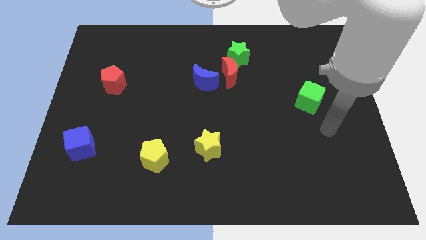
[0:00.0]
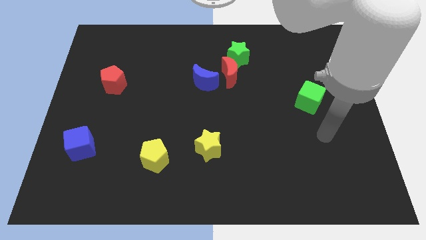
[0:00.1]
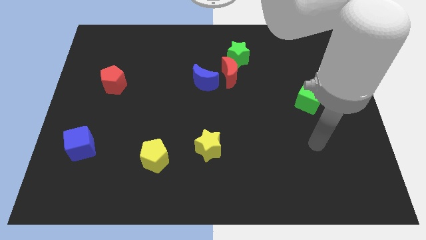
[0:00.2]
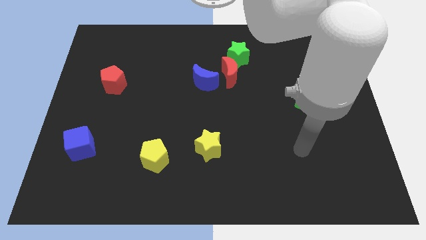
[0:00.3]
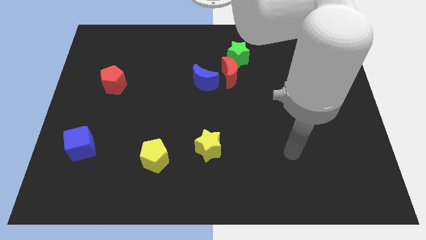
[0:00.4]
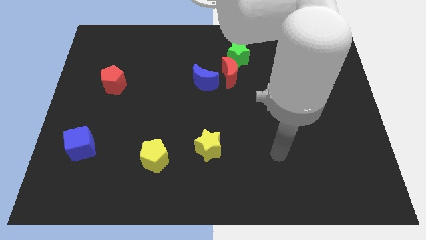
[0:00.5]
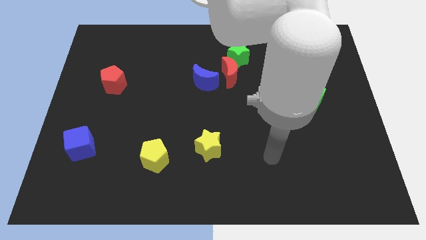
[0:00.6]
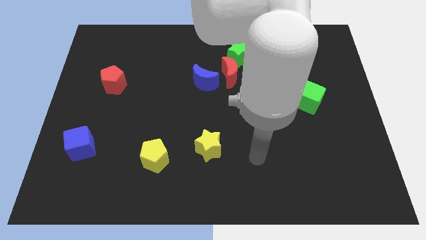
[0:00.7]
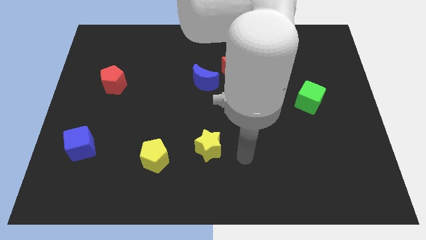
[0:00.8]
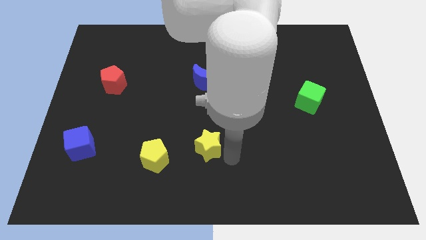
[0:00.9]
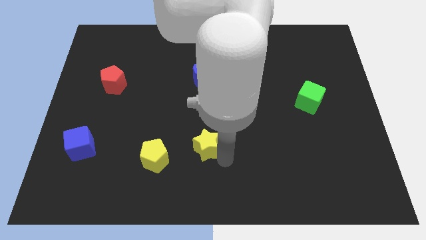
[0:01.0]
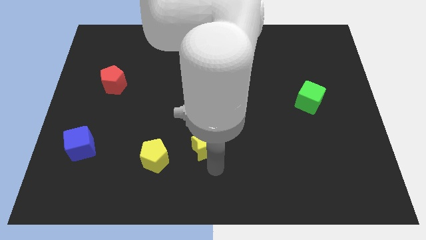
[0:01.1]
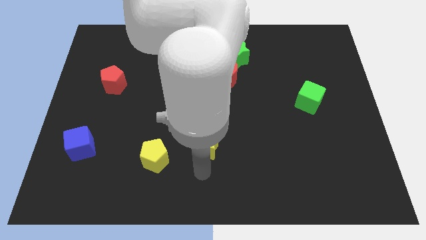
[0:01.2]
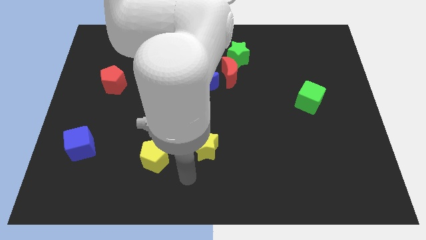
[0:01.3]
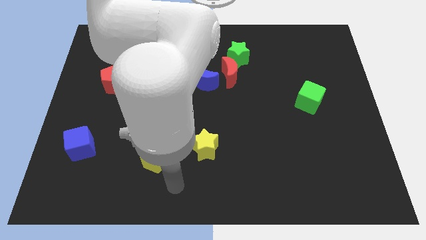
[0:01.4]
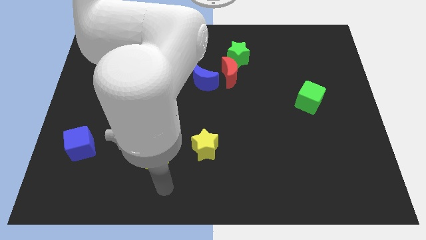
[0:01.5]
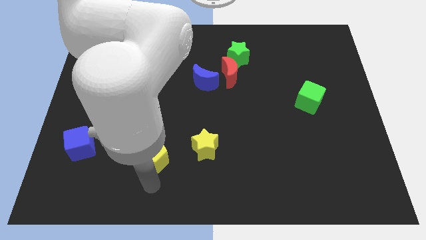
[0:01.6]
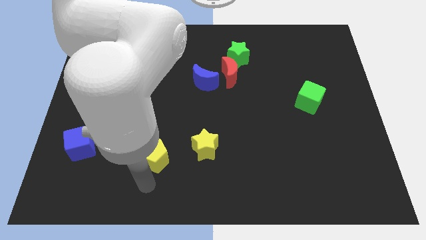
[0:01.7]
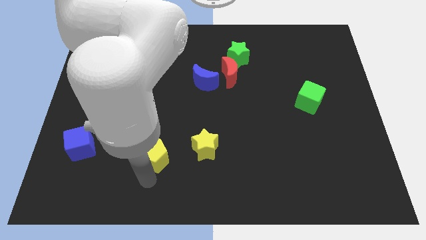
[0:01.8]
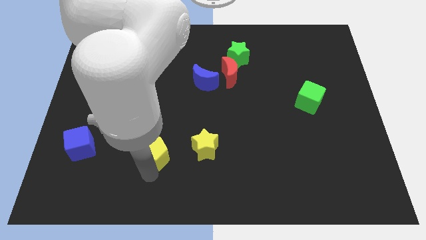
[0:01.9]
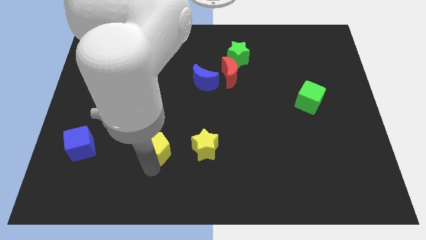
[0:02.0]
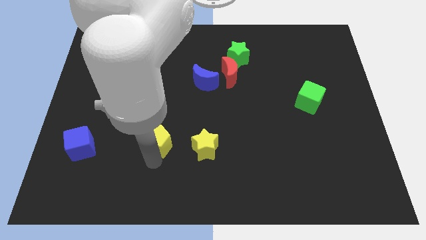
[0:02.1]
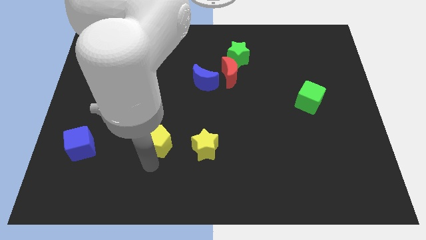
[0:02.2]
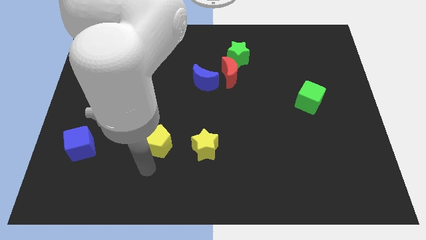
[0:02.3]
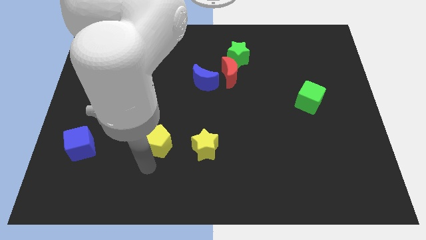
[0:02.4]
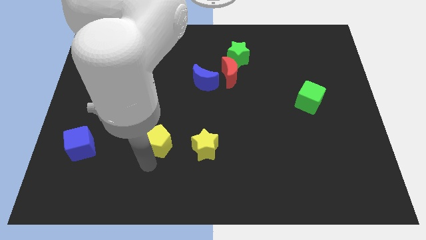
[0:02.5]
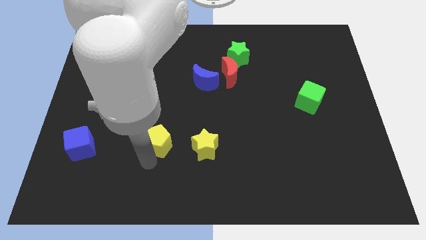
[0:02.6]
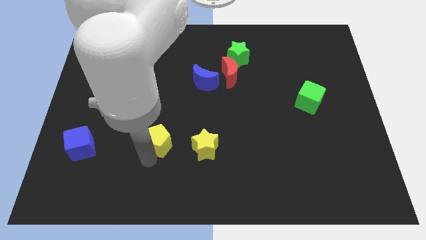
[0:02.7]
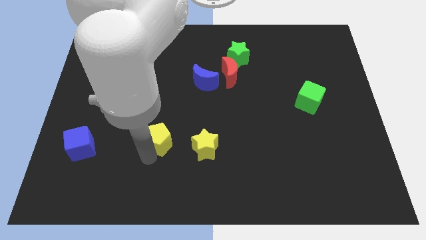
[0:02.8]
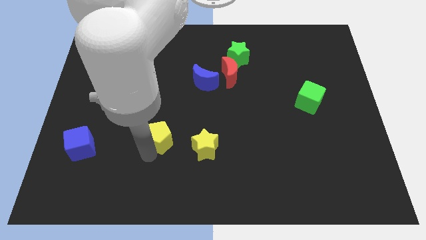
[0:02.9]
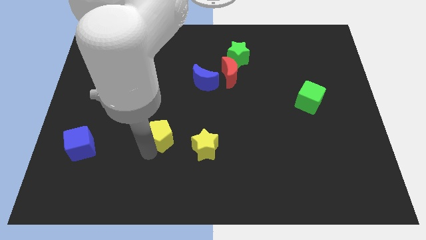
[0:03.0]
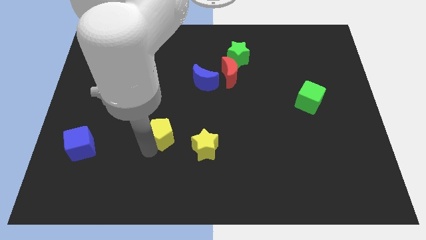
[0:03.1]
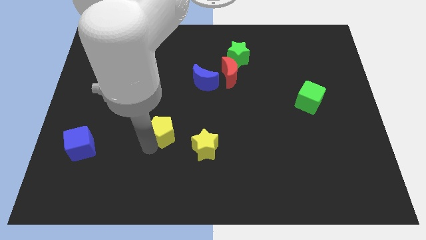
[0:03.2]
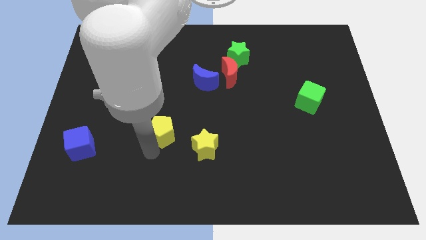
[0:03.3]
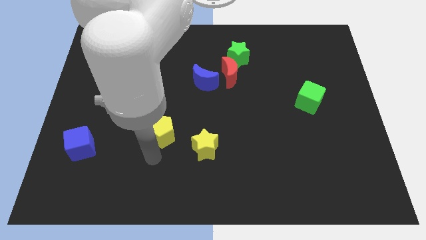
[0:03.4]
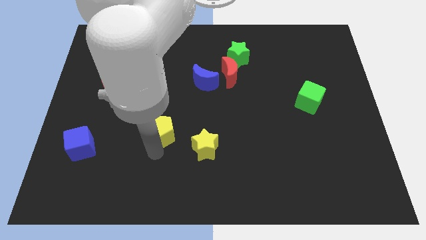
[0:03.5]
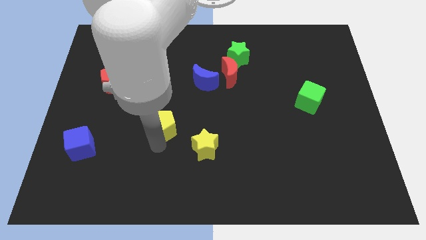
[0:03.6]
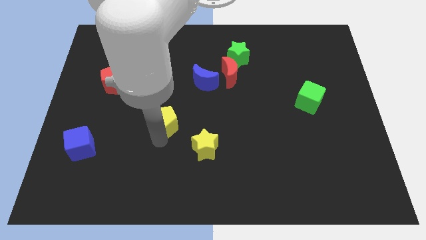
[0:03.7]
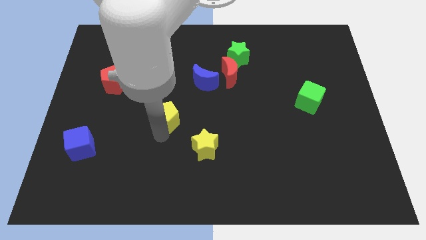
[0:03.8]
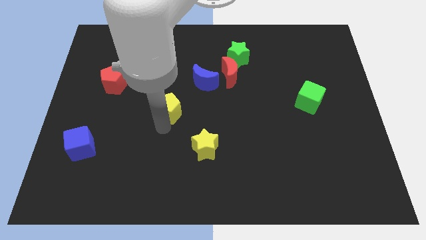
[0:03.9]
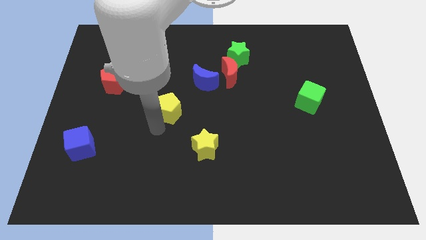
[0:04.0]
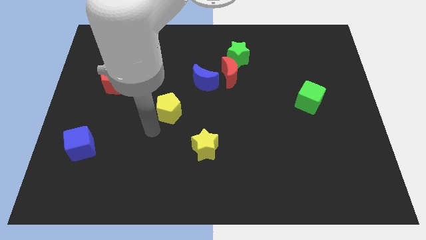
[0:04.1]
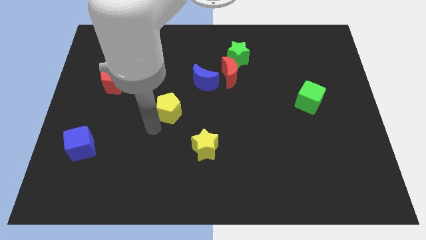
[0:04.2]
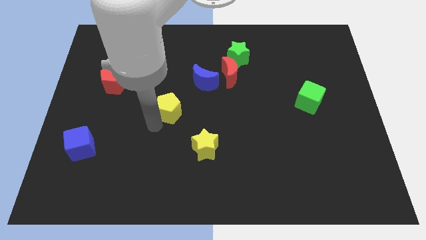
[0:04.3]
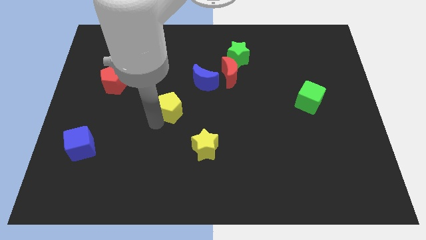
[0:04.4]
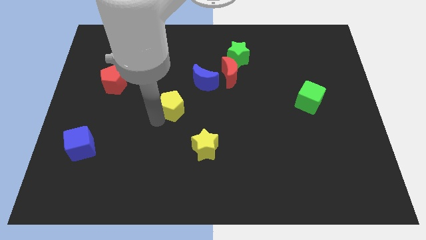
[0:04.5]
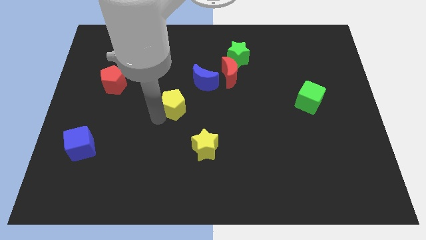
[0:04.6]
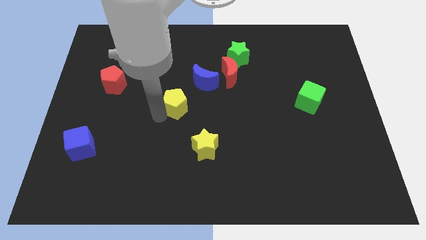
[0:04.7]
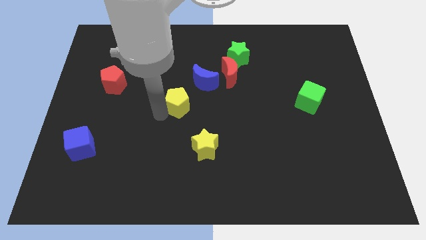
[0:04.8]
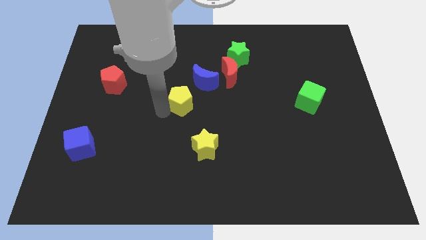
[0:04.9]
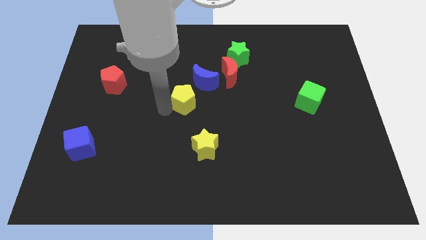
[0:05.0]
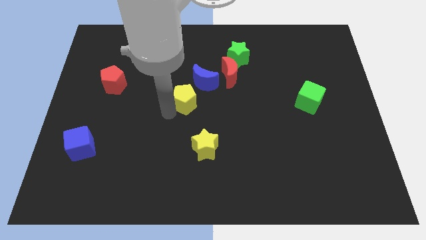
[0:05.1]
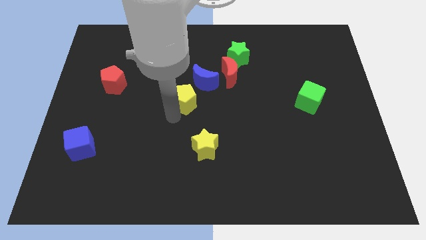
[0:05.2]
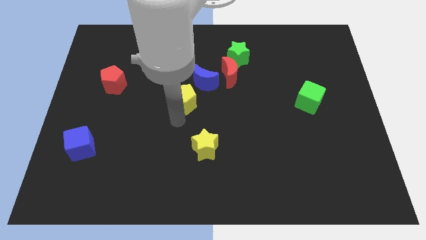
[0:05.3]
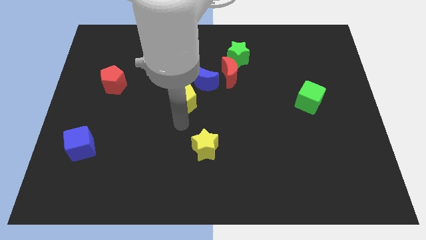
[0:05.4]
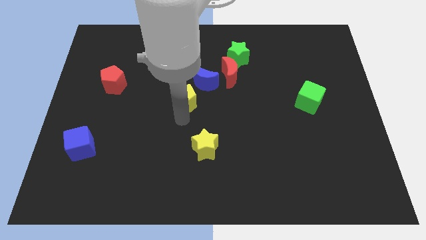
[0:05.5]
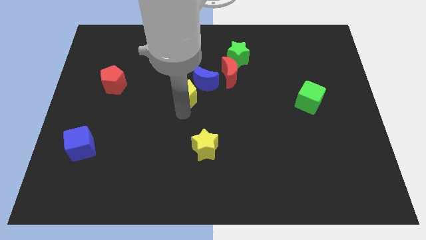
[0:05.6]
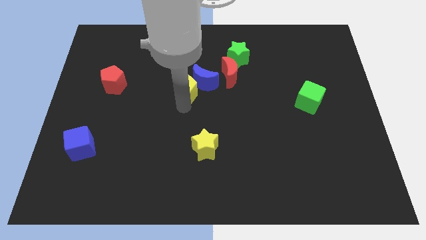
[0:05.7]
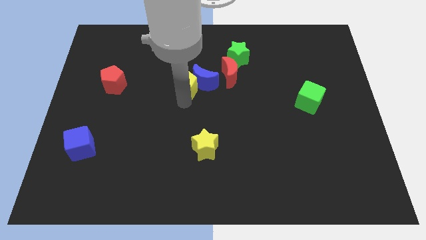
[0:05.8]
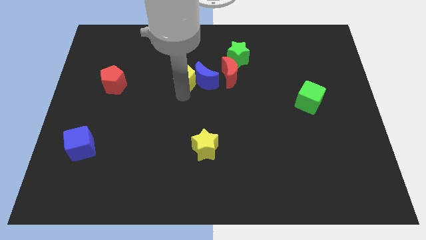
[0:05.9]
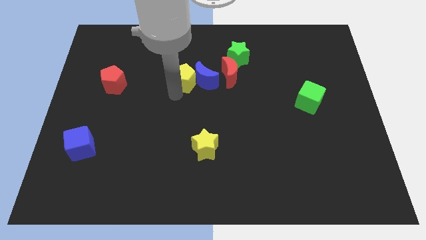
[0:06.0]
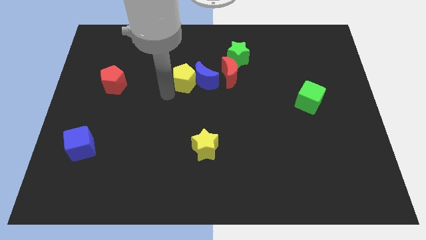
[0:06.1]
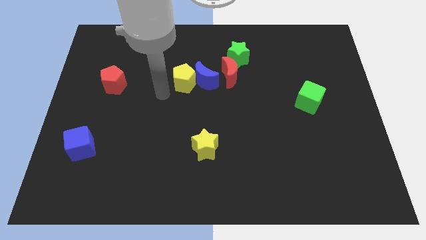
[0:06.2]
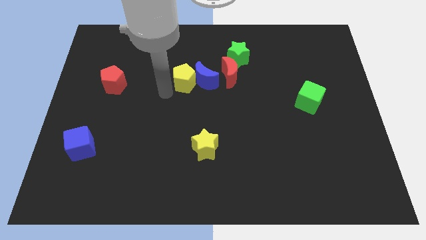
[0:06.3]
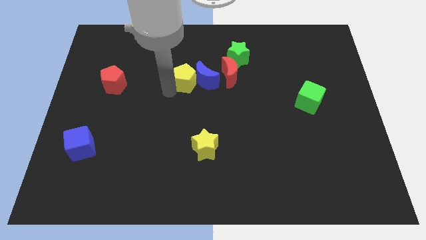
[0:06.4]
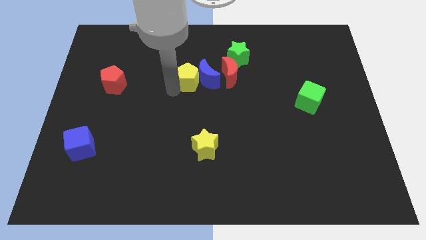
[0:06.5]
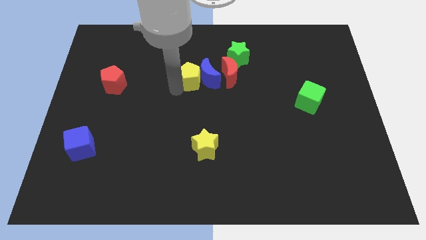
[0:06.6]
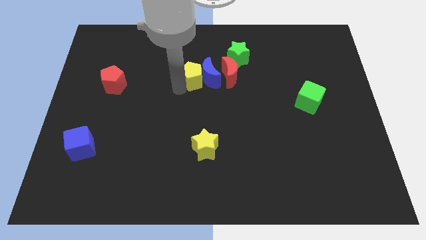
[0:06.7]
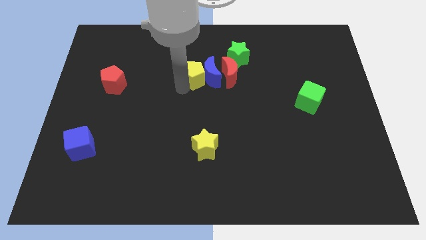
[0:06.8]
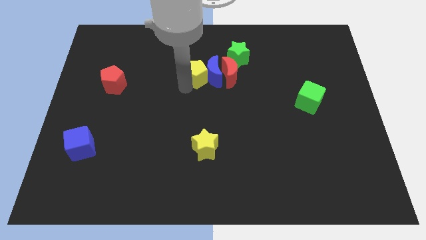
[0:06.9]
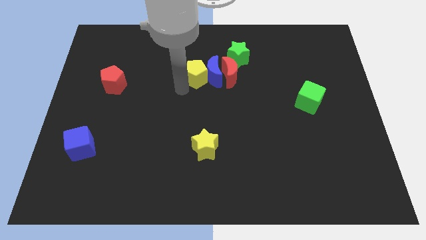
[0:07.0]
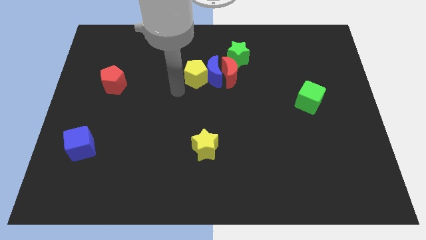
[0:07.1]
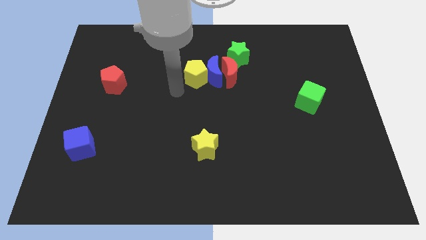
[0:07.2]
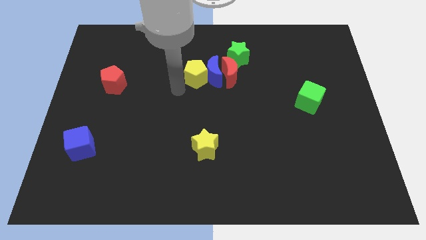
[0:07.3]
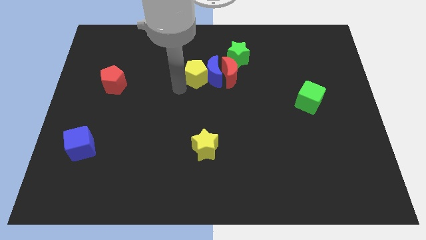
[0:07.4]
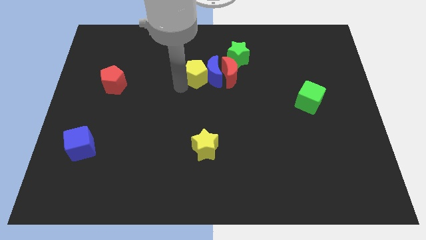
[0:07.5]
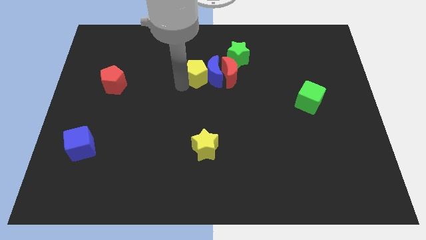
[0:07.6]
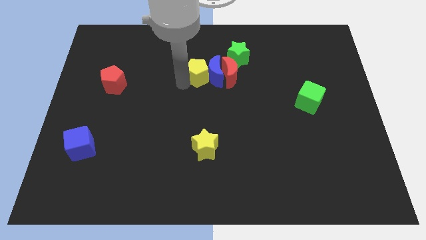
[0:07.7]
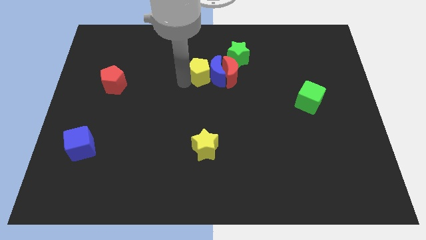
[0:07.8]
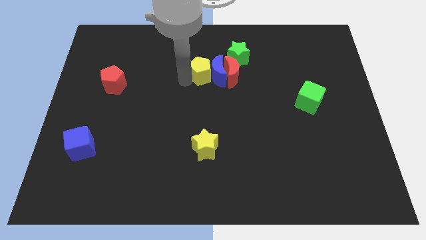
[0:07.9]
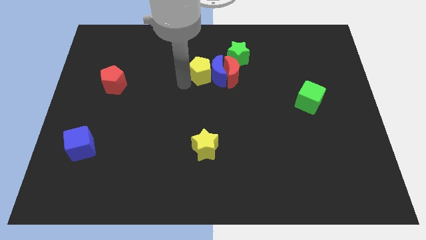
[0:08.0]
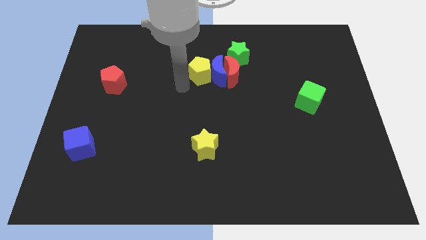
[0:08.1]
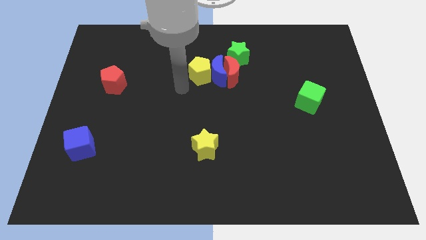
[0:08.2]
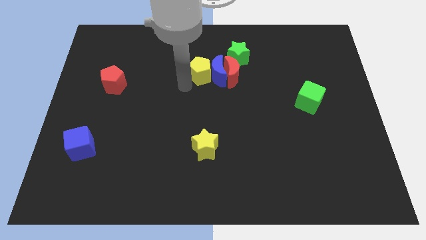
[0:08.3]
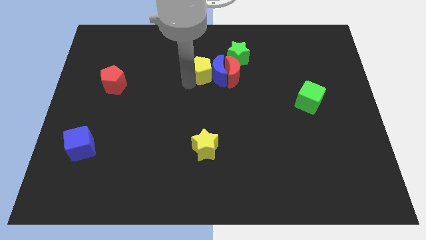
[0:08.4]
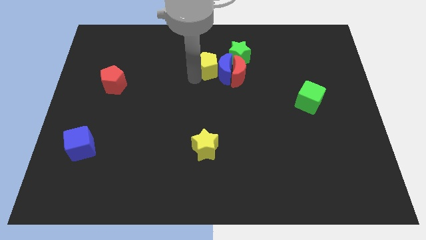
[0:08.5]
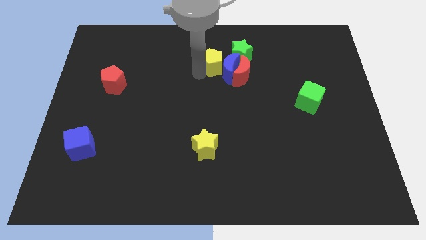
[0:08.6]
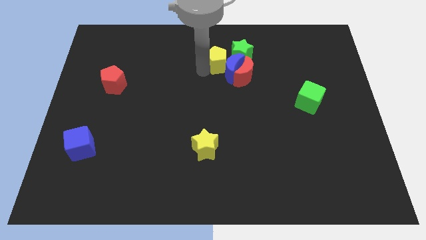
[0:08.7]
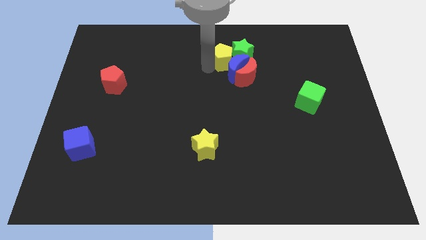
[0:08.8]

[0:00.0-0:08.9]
move the yellow pentagon towards the green star
